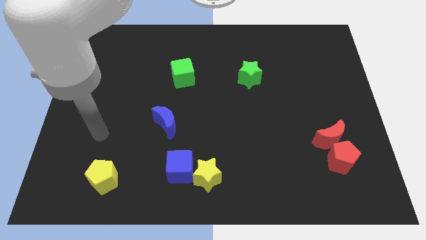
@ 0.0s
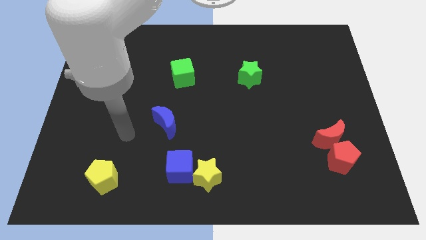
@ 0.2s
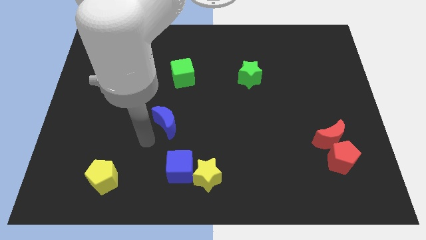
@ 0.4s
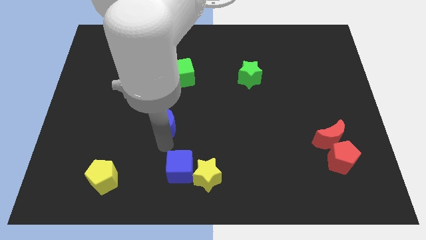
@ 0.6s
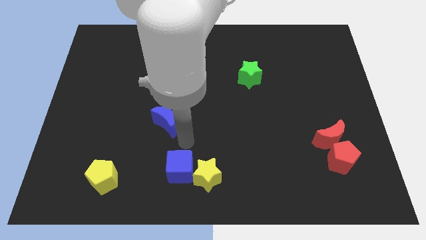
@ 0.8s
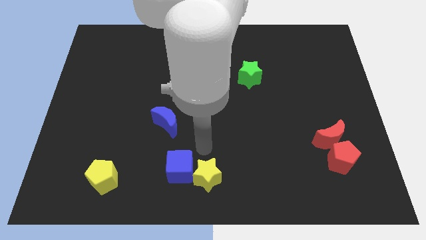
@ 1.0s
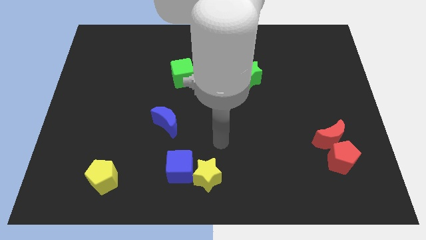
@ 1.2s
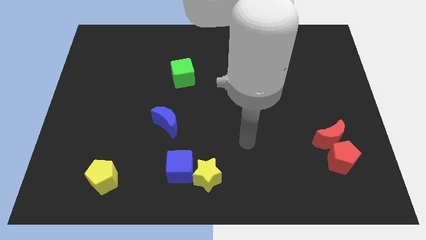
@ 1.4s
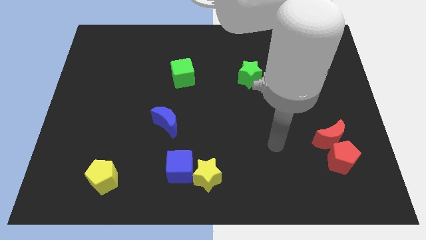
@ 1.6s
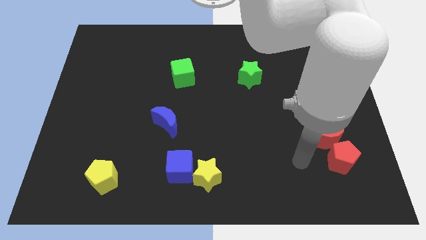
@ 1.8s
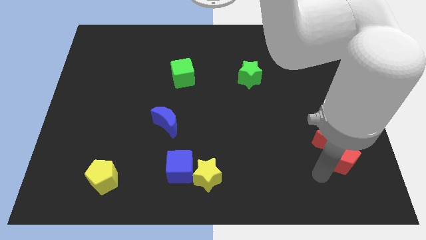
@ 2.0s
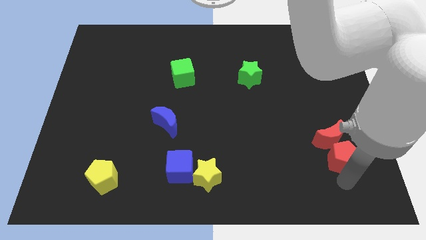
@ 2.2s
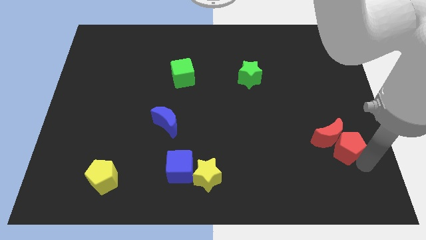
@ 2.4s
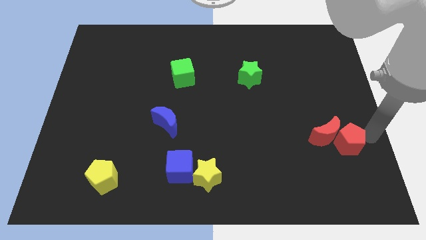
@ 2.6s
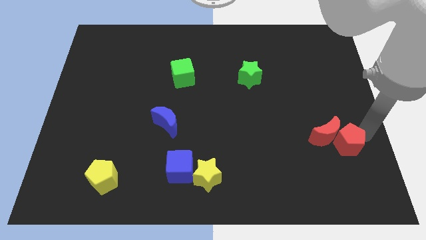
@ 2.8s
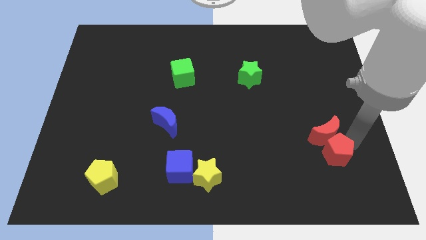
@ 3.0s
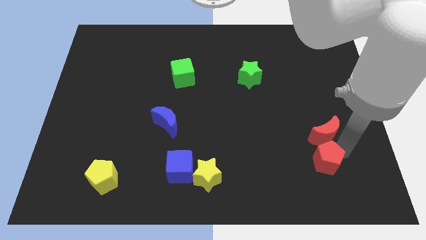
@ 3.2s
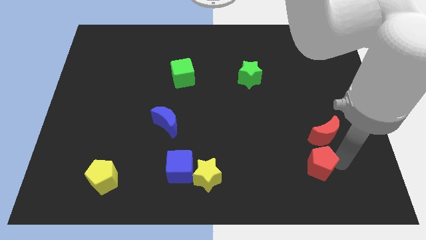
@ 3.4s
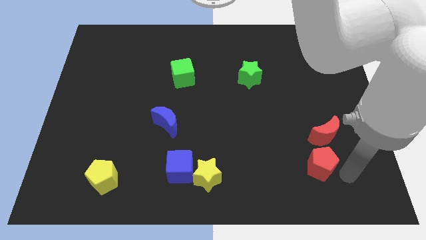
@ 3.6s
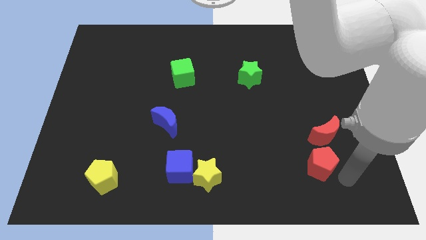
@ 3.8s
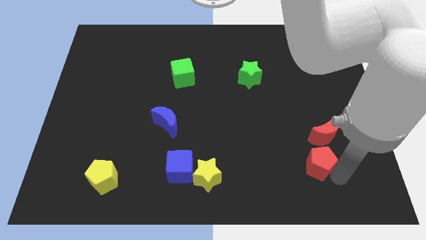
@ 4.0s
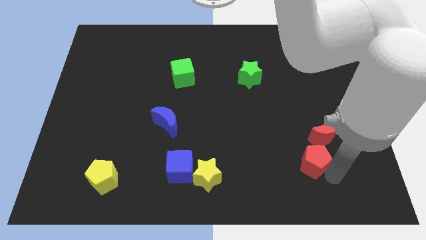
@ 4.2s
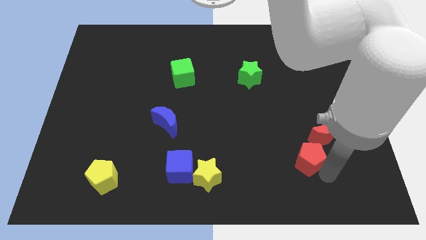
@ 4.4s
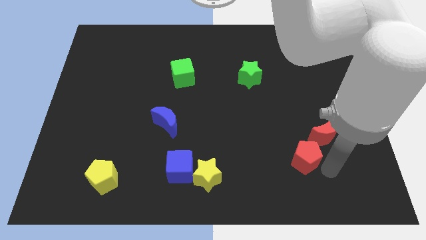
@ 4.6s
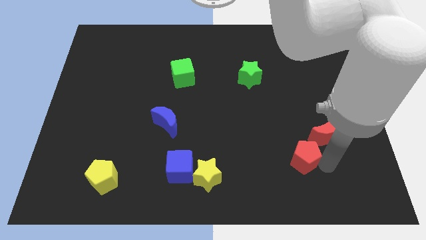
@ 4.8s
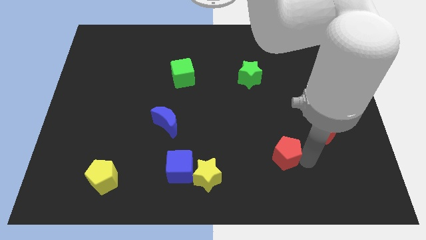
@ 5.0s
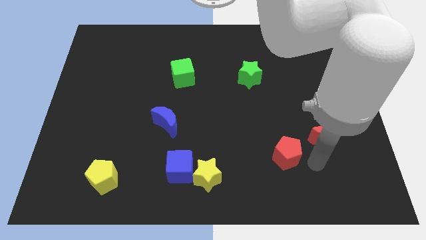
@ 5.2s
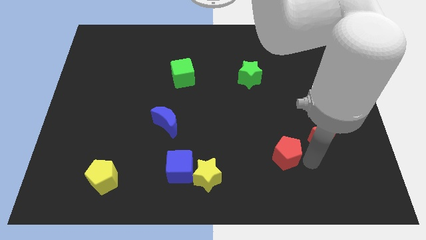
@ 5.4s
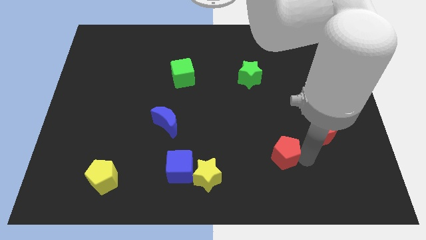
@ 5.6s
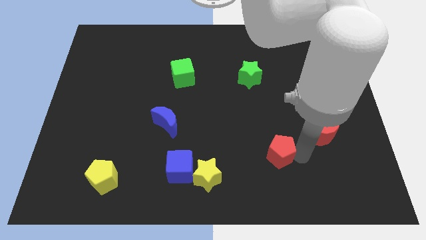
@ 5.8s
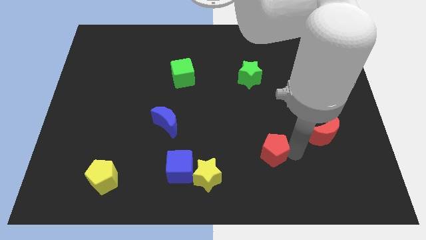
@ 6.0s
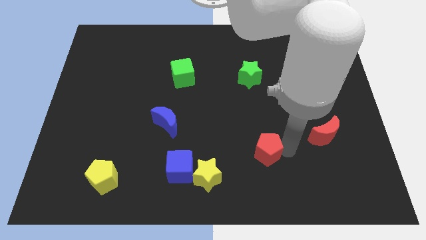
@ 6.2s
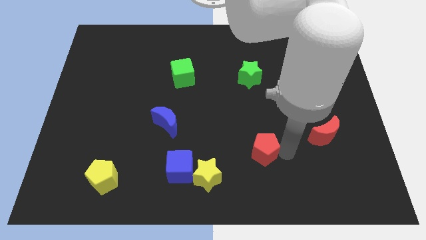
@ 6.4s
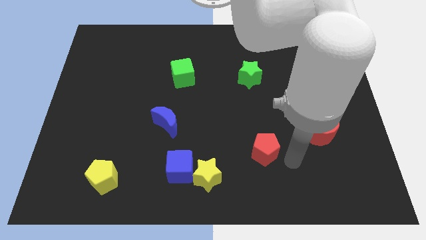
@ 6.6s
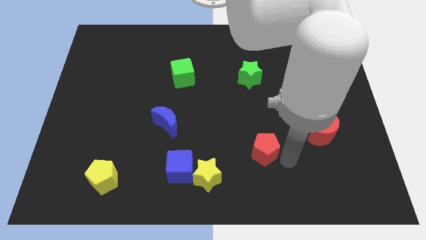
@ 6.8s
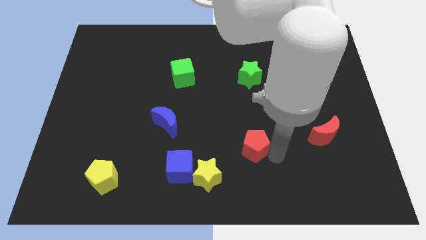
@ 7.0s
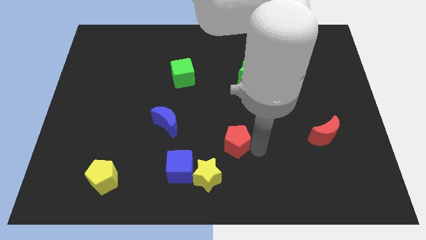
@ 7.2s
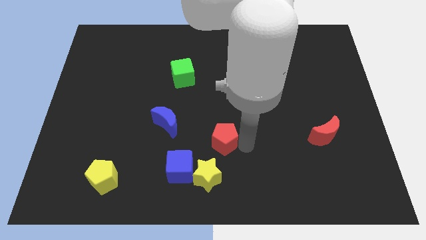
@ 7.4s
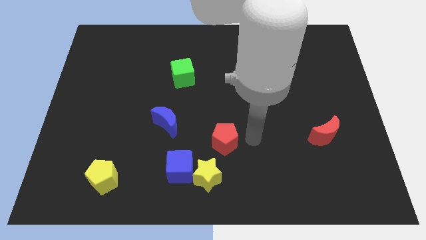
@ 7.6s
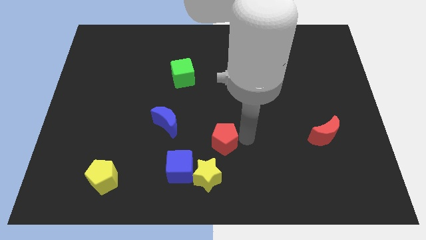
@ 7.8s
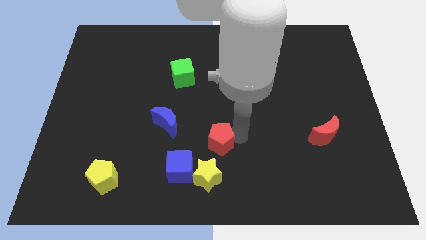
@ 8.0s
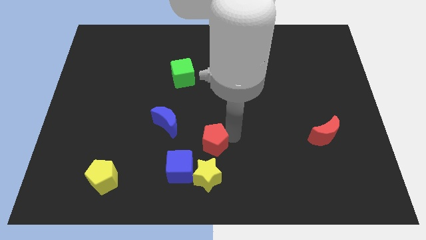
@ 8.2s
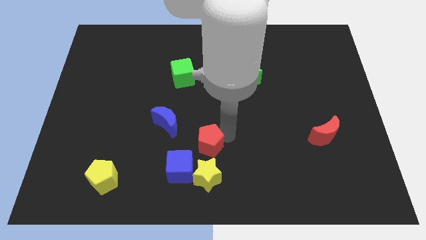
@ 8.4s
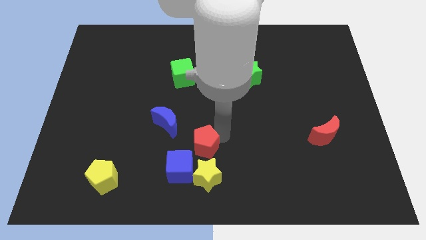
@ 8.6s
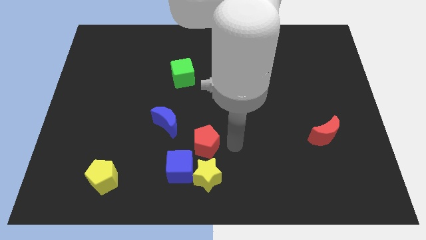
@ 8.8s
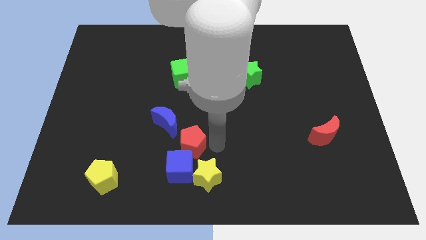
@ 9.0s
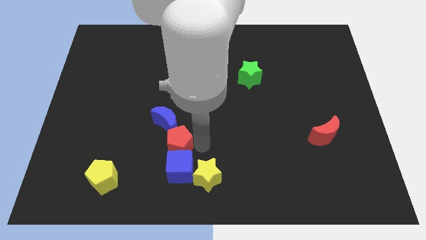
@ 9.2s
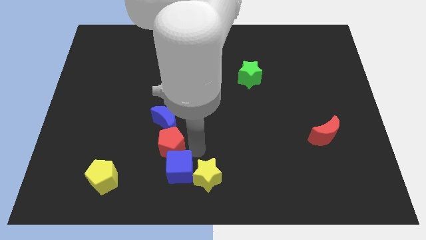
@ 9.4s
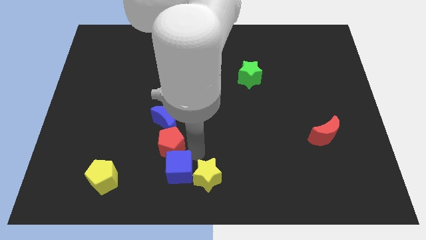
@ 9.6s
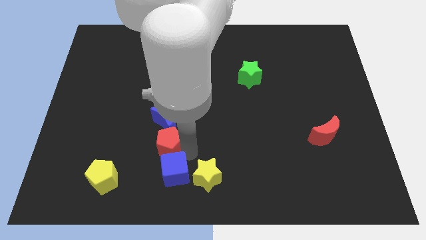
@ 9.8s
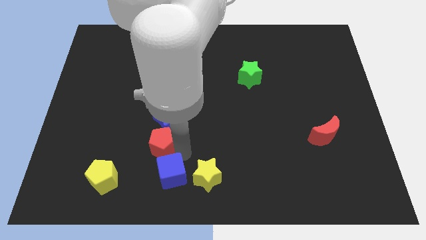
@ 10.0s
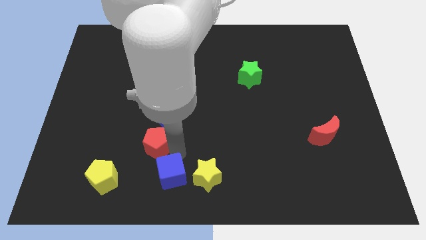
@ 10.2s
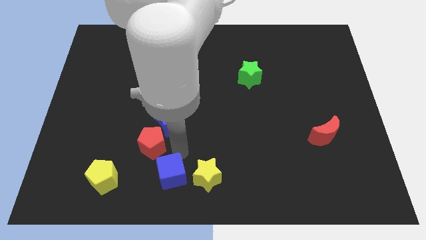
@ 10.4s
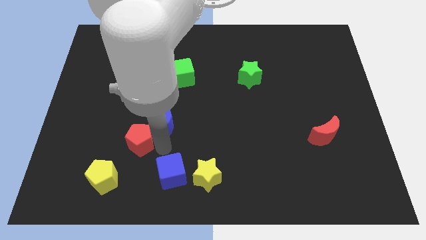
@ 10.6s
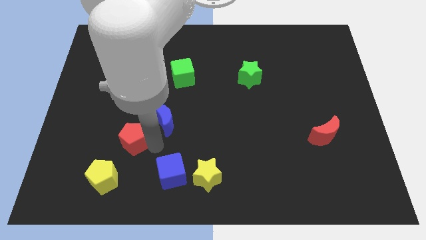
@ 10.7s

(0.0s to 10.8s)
push the red pentagon to the top side of the yellow pentagon
